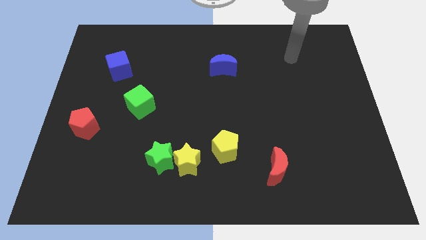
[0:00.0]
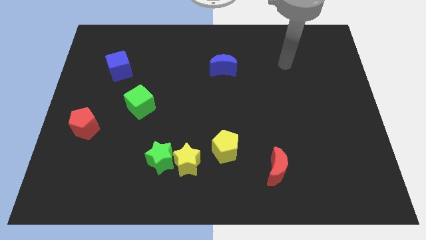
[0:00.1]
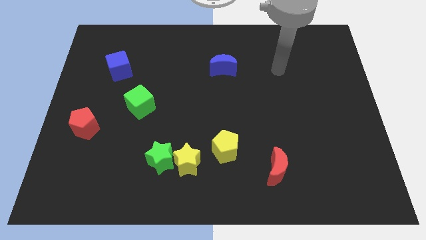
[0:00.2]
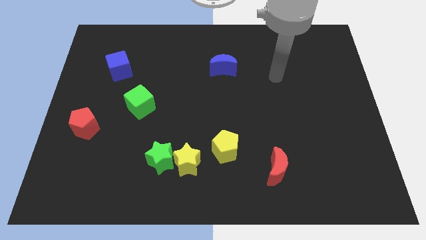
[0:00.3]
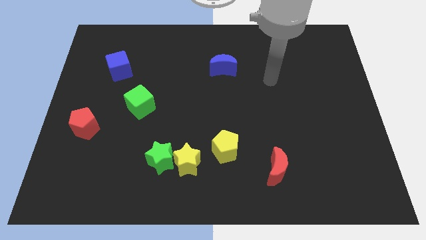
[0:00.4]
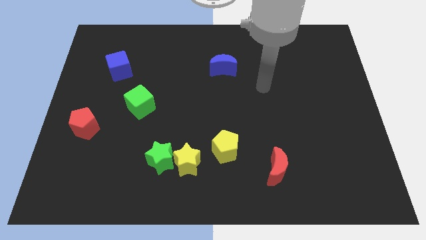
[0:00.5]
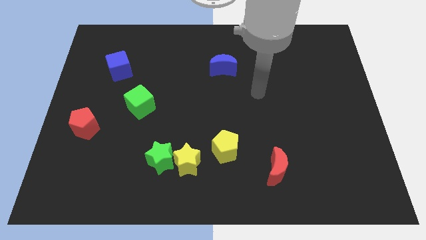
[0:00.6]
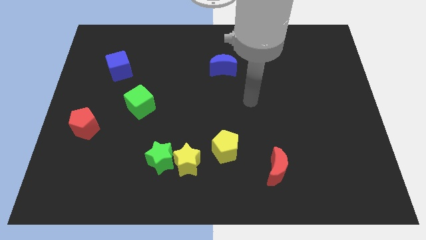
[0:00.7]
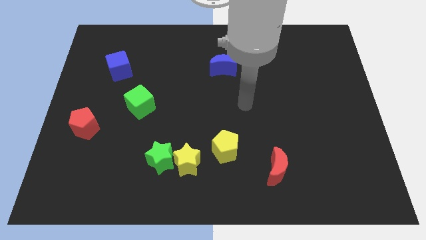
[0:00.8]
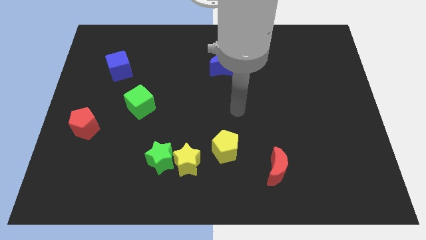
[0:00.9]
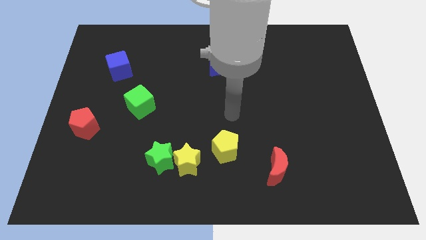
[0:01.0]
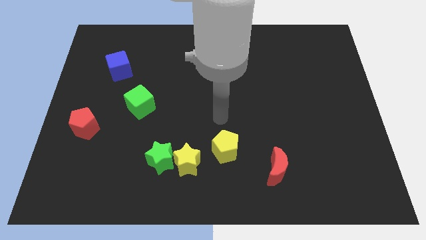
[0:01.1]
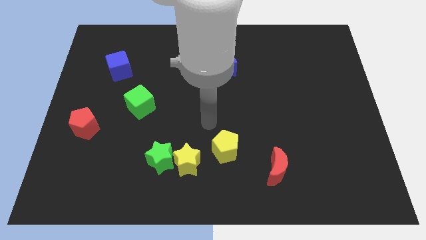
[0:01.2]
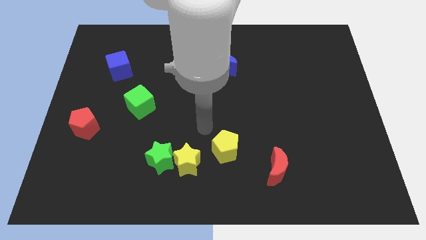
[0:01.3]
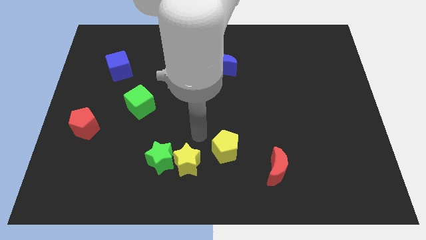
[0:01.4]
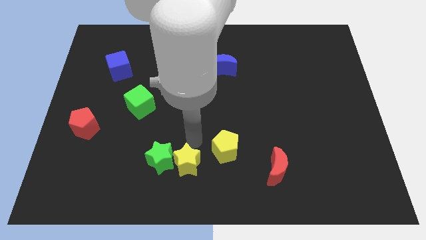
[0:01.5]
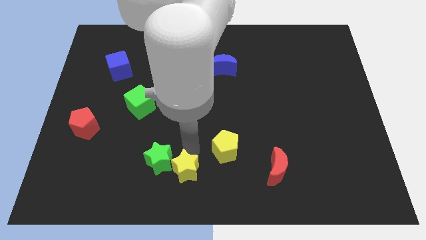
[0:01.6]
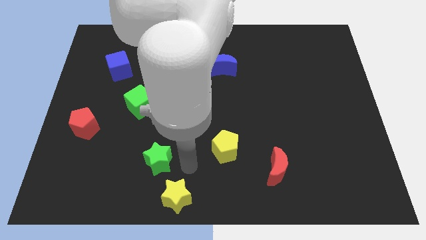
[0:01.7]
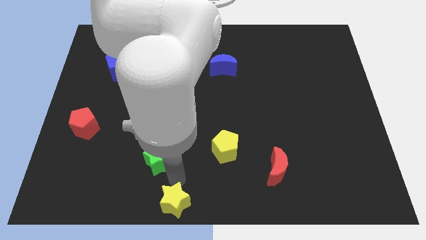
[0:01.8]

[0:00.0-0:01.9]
move the green star away from the yellow star

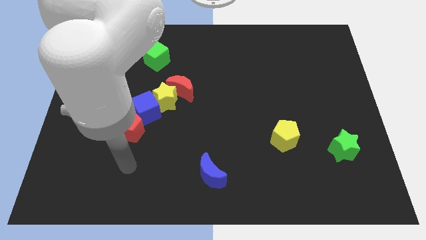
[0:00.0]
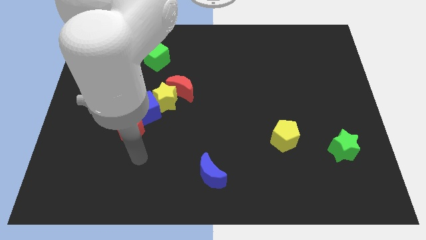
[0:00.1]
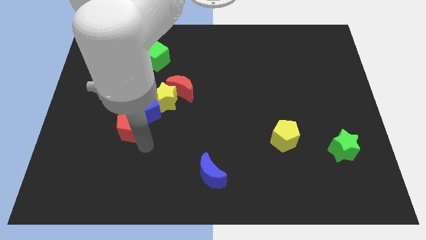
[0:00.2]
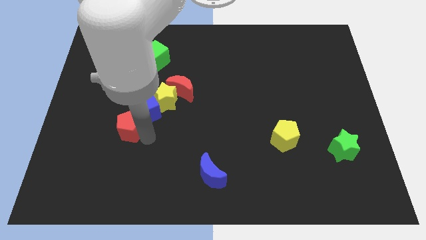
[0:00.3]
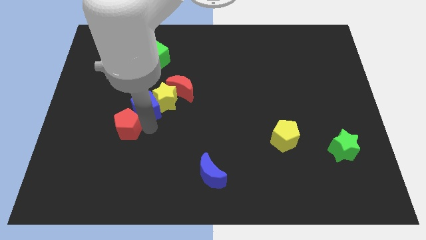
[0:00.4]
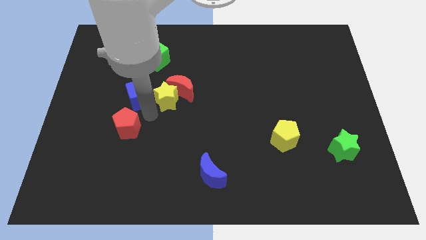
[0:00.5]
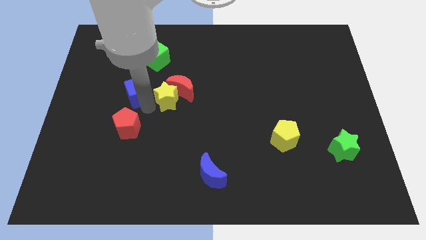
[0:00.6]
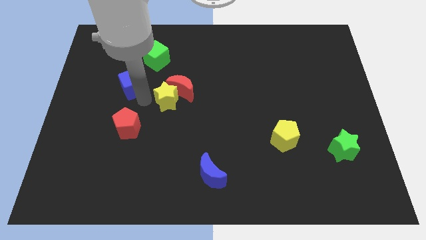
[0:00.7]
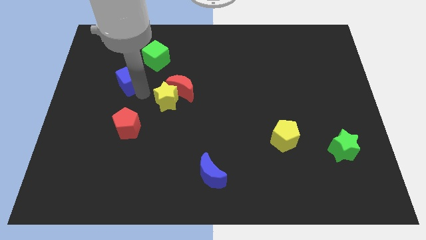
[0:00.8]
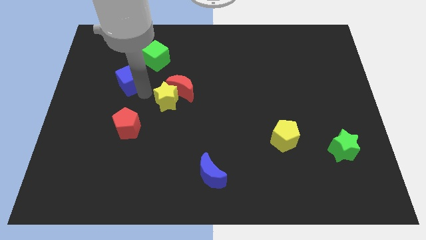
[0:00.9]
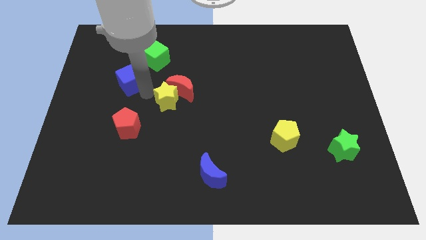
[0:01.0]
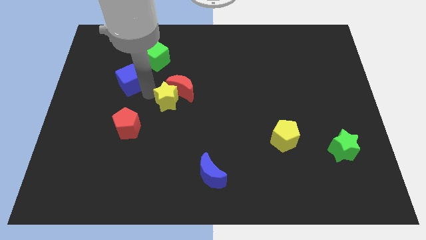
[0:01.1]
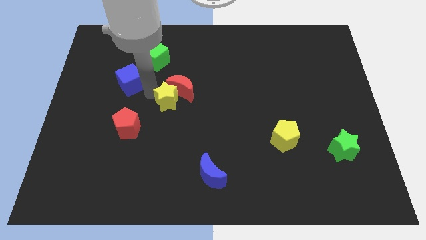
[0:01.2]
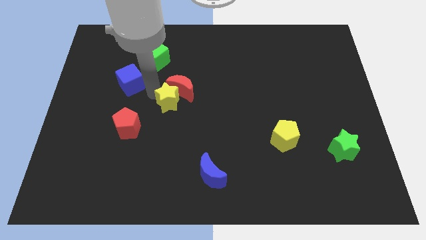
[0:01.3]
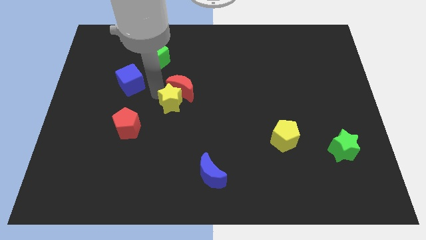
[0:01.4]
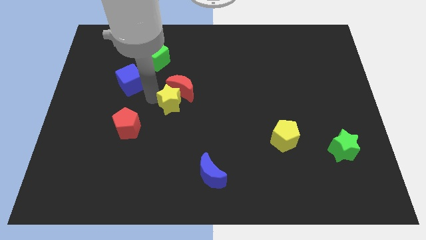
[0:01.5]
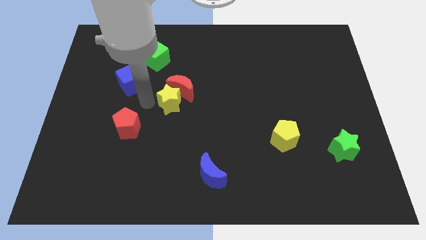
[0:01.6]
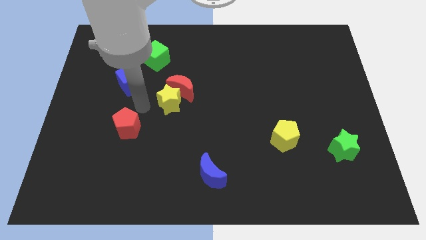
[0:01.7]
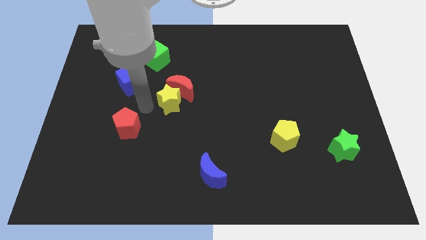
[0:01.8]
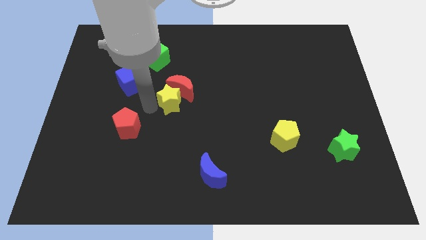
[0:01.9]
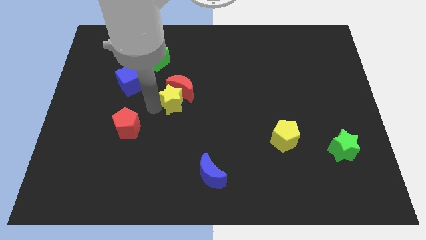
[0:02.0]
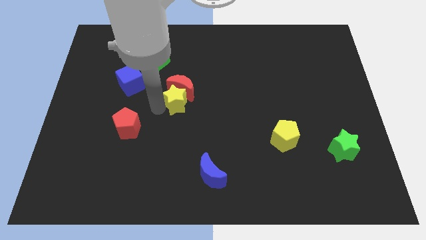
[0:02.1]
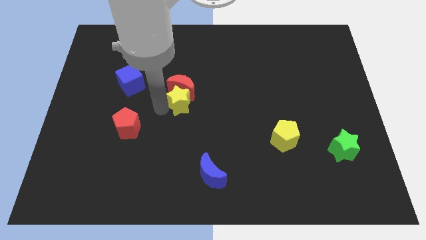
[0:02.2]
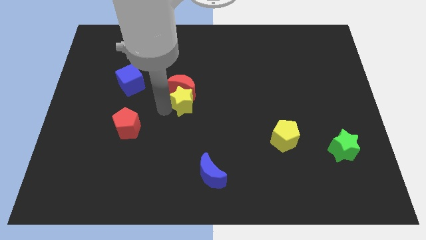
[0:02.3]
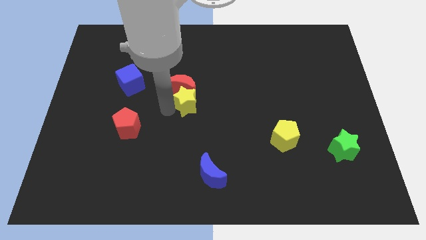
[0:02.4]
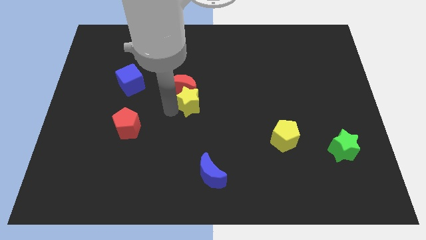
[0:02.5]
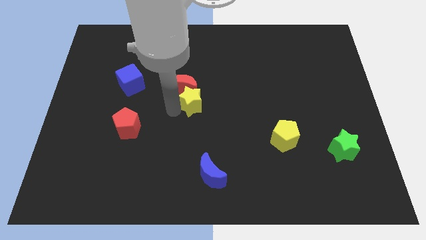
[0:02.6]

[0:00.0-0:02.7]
pull the yellow star apart from the red moon and blue cube

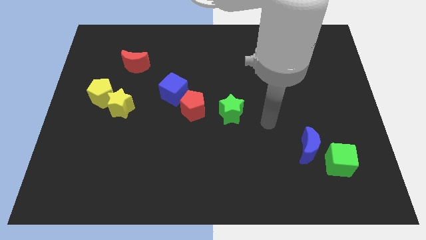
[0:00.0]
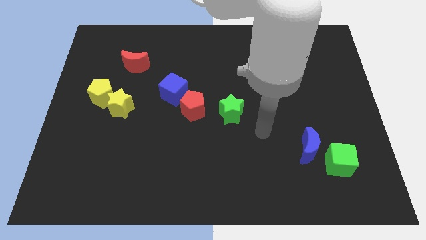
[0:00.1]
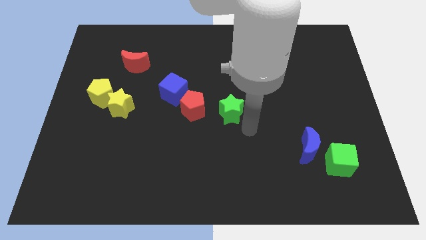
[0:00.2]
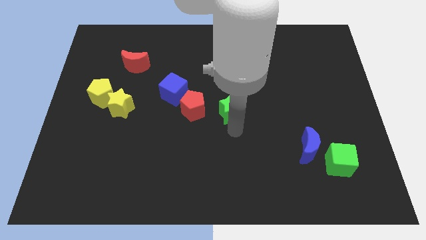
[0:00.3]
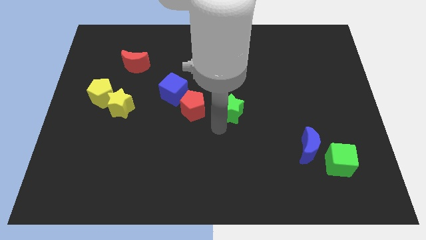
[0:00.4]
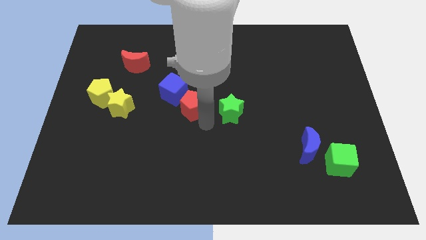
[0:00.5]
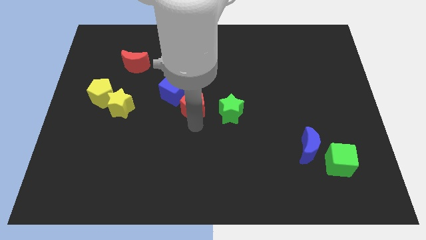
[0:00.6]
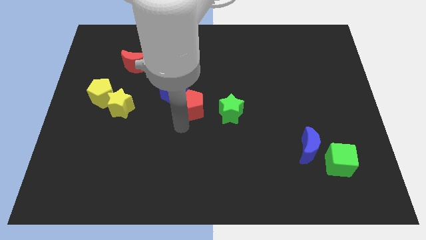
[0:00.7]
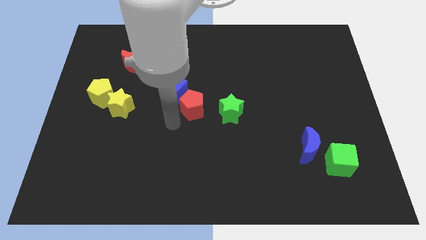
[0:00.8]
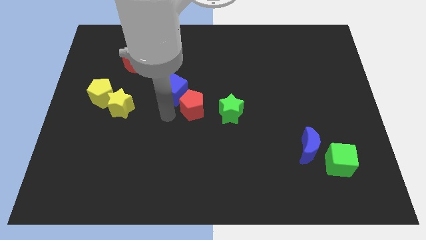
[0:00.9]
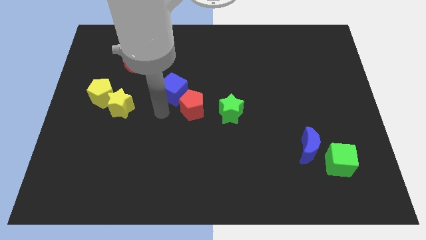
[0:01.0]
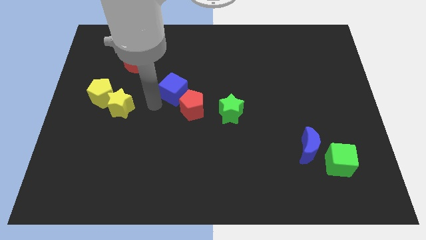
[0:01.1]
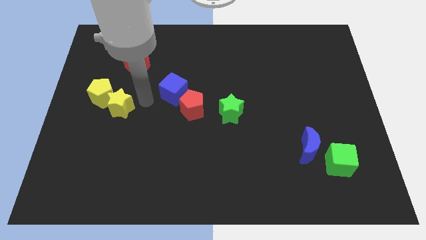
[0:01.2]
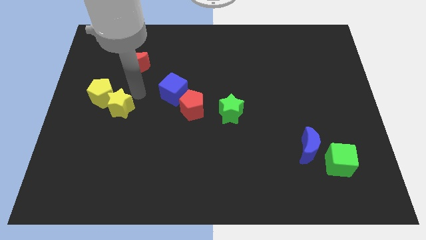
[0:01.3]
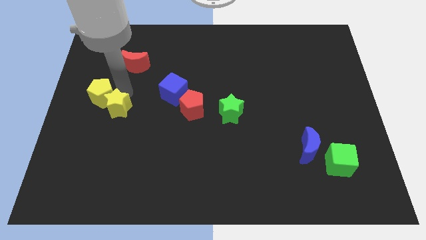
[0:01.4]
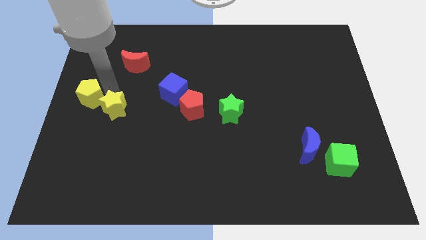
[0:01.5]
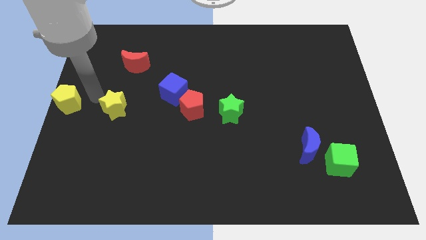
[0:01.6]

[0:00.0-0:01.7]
separate the yellow star from the yellow pentagon

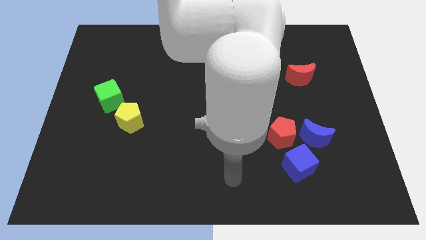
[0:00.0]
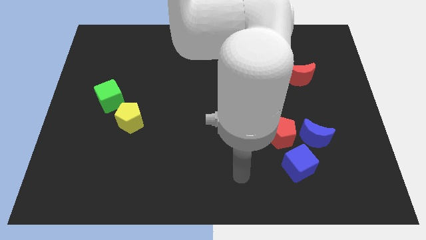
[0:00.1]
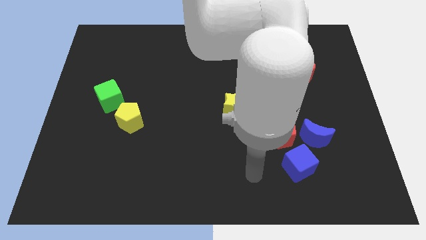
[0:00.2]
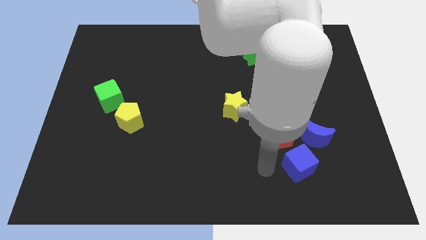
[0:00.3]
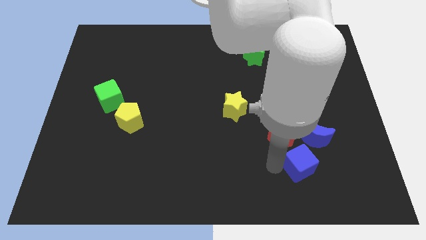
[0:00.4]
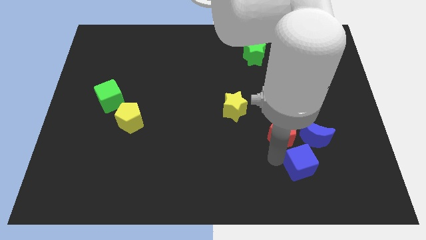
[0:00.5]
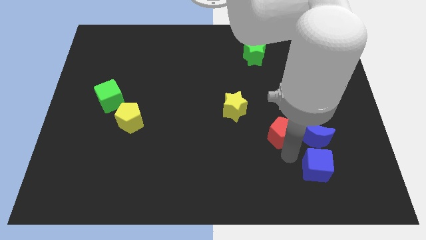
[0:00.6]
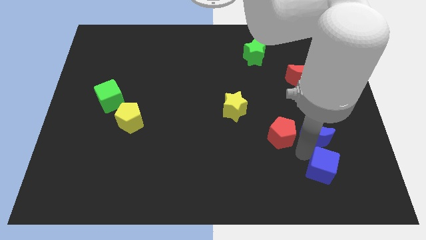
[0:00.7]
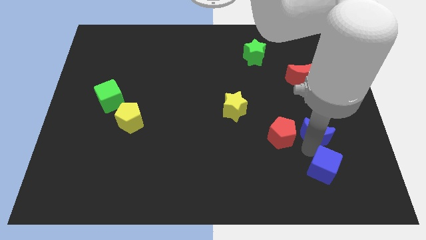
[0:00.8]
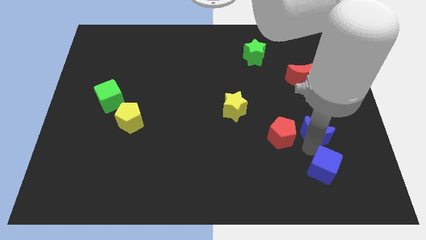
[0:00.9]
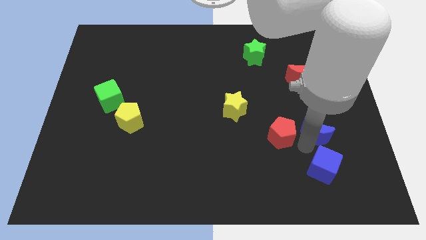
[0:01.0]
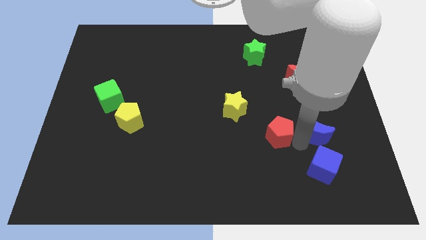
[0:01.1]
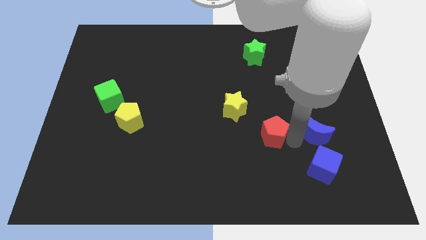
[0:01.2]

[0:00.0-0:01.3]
separate the red pentagon from the blue moon and blue cube

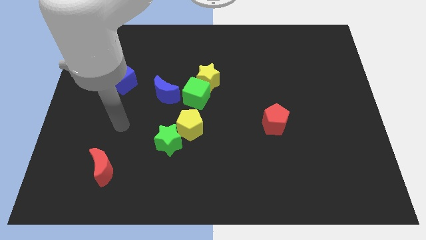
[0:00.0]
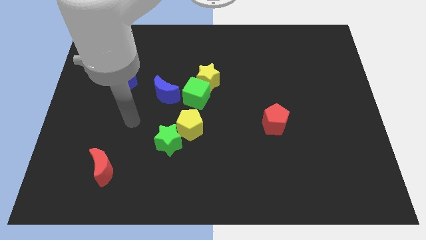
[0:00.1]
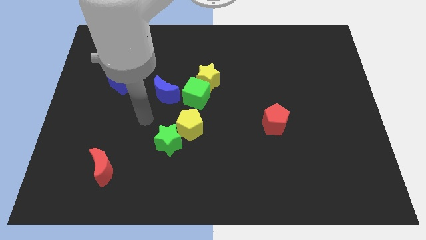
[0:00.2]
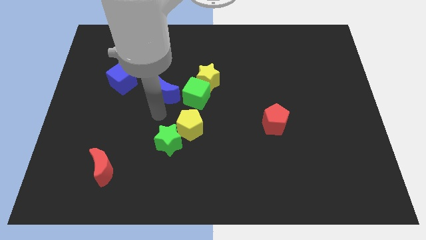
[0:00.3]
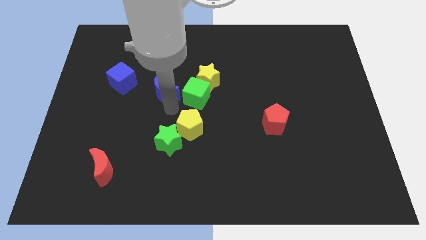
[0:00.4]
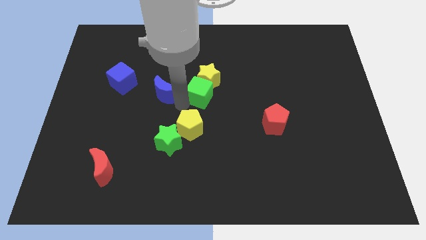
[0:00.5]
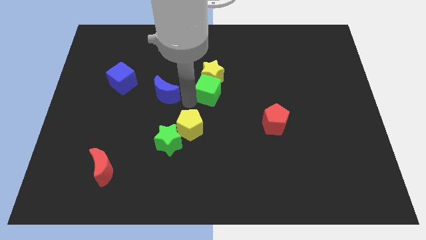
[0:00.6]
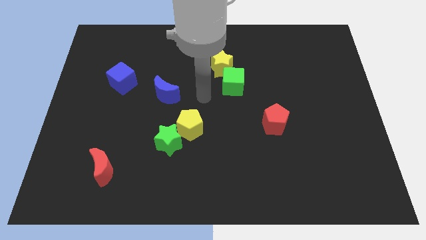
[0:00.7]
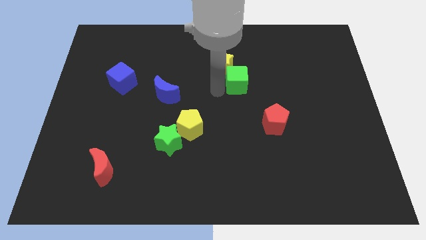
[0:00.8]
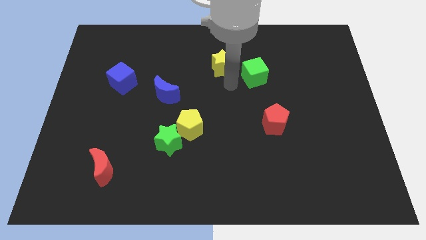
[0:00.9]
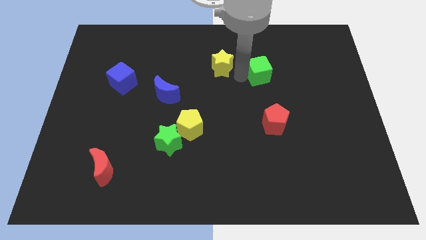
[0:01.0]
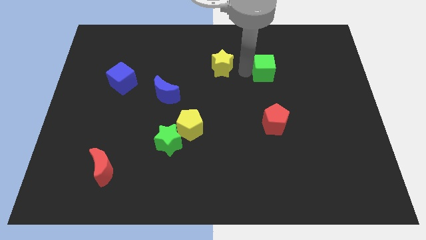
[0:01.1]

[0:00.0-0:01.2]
move the yellow star away from the green cube

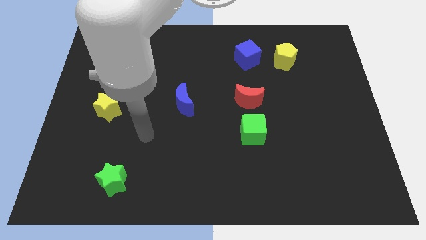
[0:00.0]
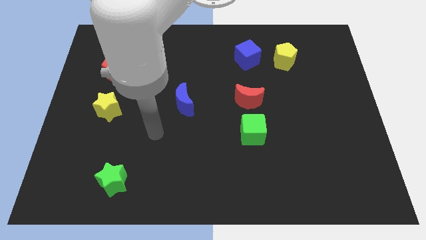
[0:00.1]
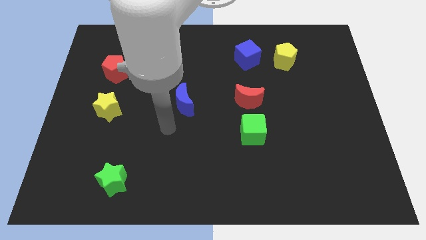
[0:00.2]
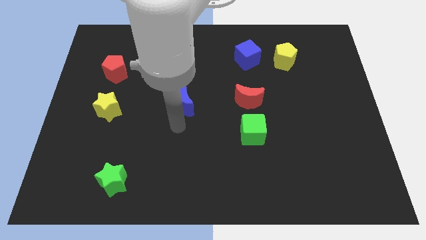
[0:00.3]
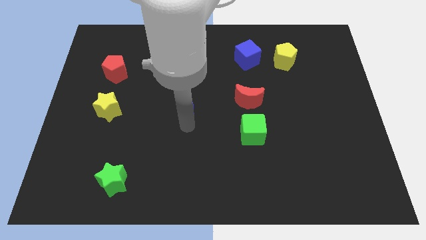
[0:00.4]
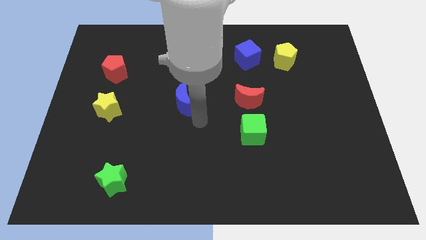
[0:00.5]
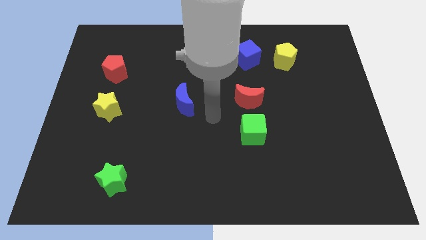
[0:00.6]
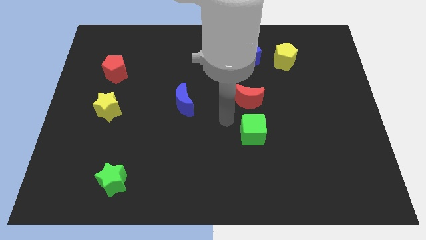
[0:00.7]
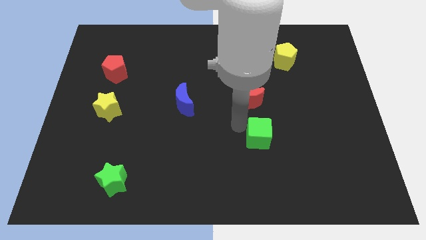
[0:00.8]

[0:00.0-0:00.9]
pull the red moon apart from the green cube
